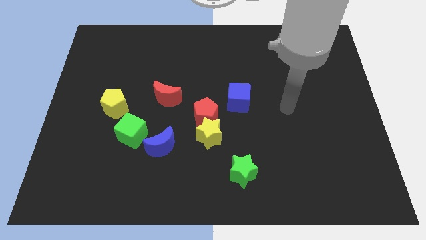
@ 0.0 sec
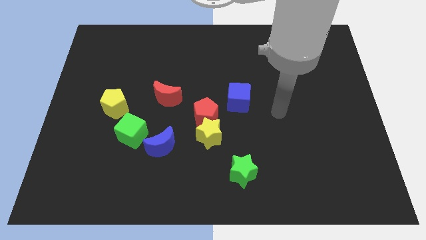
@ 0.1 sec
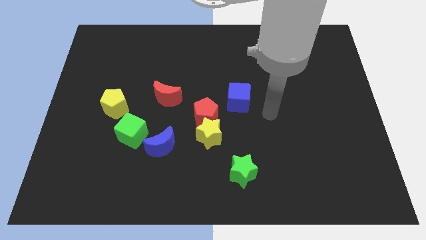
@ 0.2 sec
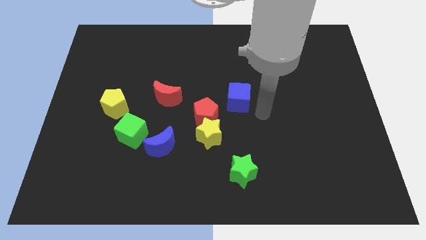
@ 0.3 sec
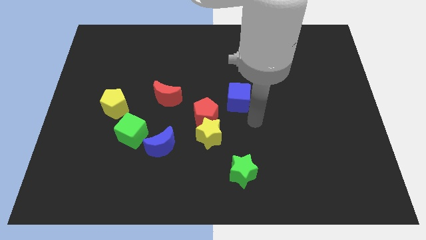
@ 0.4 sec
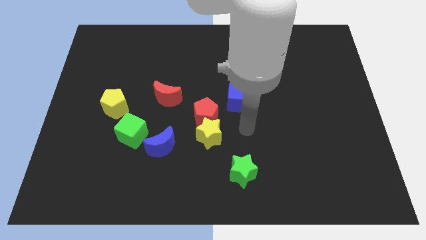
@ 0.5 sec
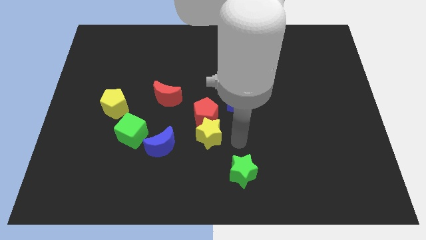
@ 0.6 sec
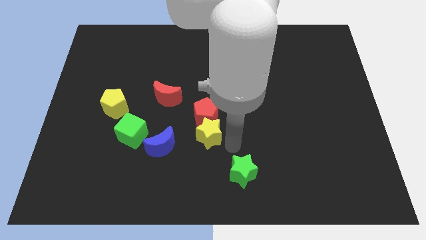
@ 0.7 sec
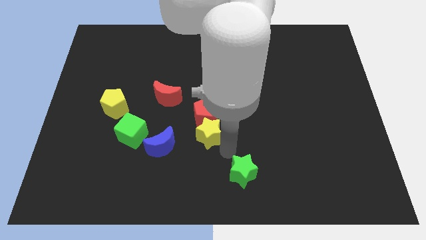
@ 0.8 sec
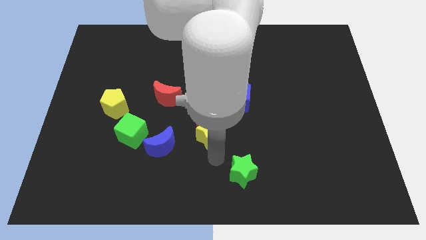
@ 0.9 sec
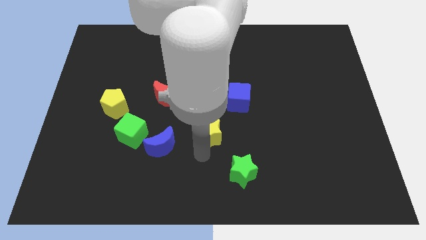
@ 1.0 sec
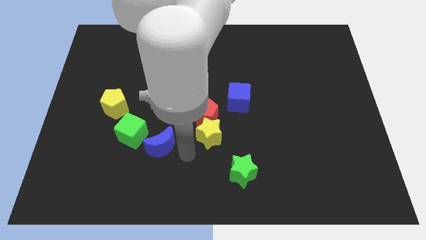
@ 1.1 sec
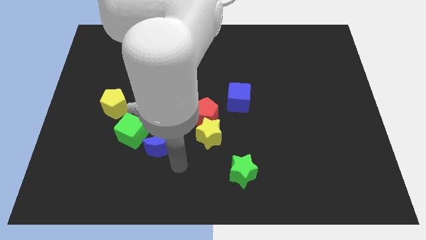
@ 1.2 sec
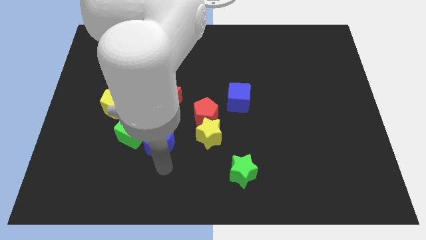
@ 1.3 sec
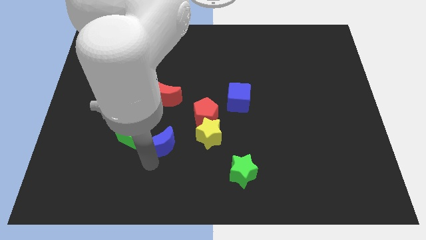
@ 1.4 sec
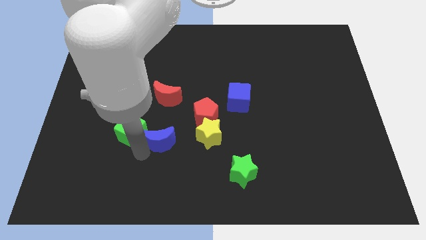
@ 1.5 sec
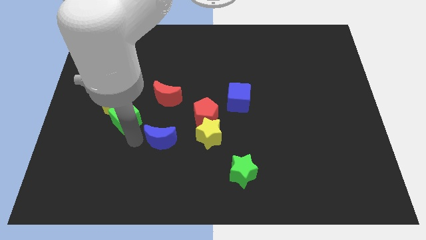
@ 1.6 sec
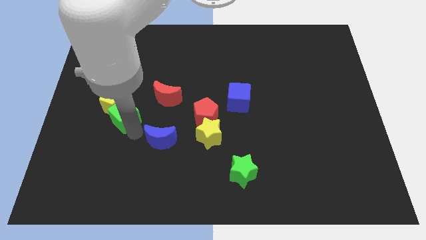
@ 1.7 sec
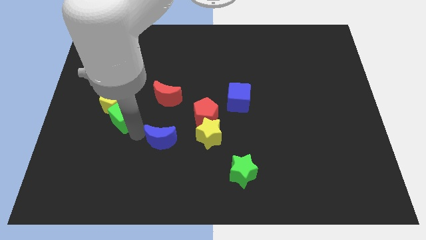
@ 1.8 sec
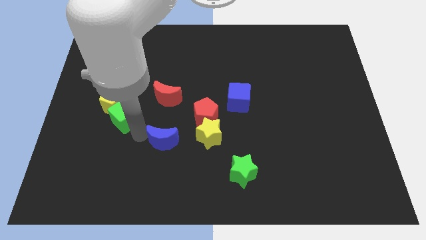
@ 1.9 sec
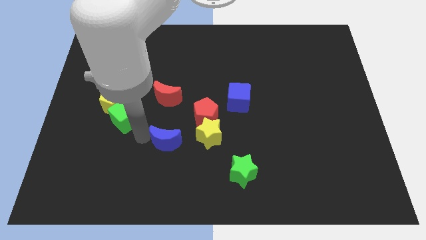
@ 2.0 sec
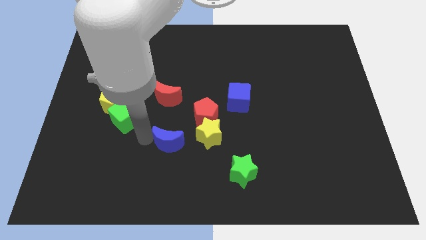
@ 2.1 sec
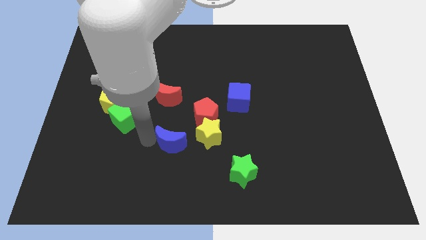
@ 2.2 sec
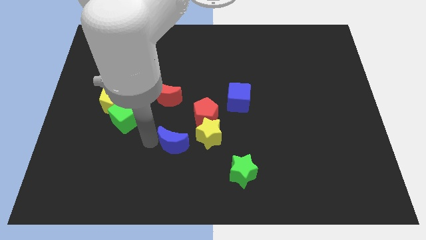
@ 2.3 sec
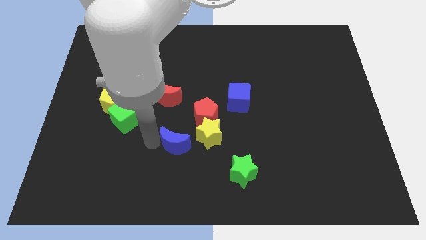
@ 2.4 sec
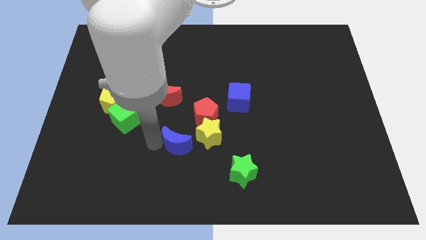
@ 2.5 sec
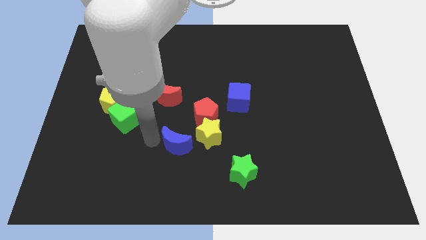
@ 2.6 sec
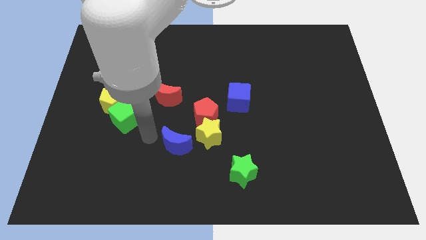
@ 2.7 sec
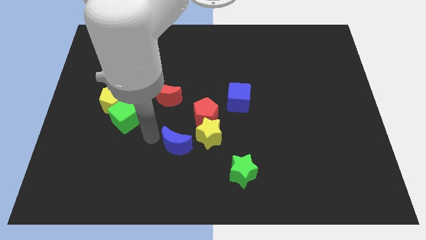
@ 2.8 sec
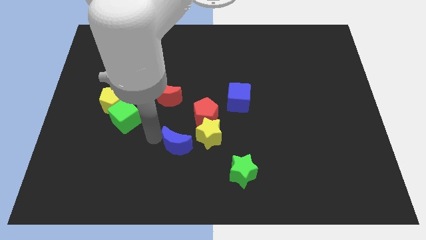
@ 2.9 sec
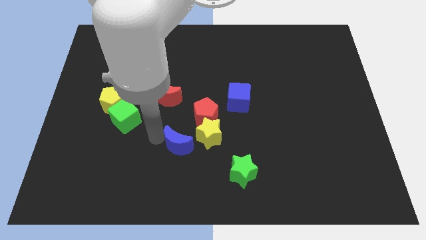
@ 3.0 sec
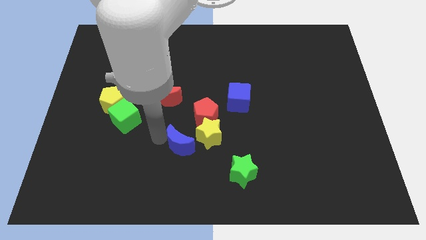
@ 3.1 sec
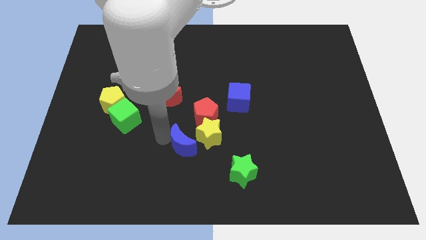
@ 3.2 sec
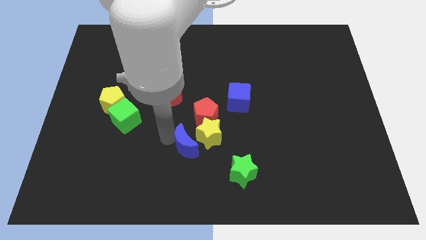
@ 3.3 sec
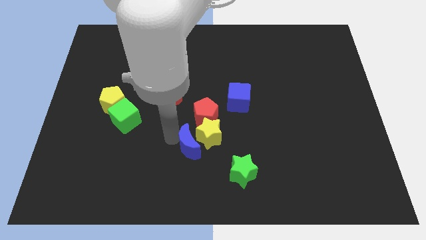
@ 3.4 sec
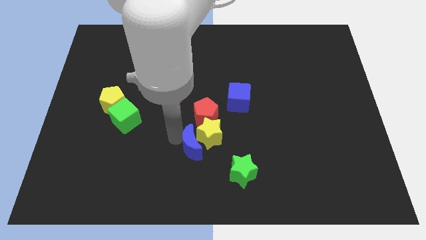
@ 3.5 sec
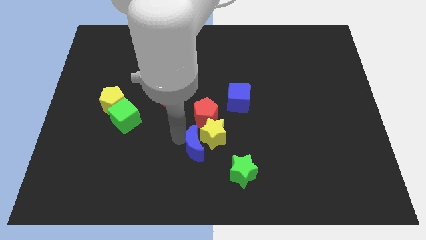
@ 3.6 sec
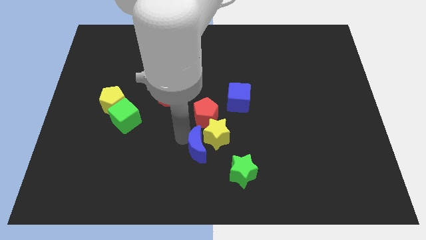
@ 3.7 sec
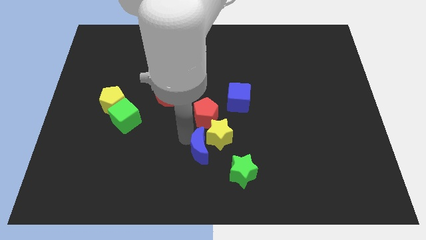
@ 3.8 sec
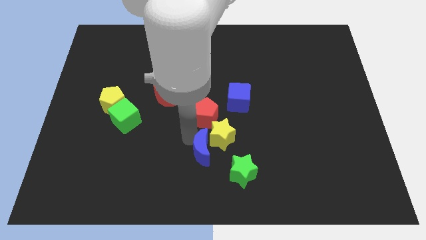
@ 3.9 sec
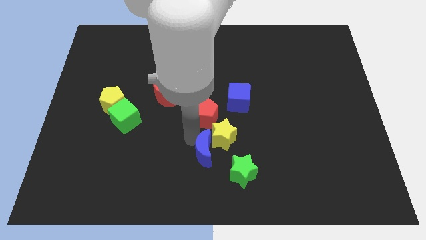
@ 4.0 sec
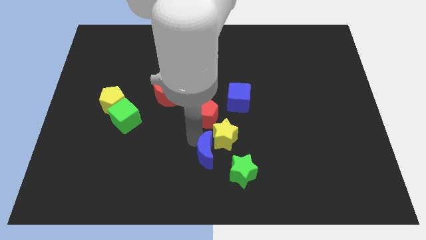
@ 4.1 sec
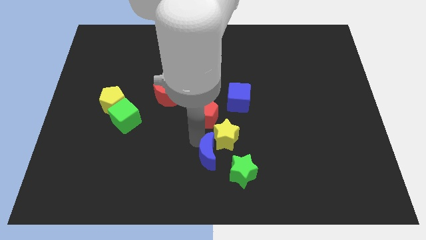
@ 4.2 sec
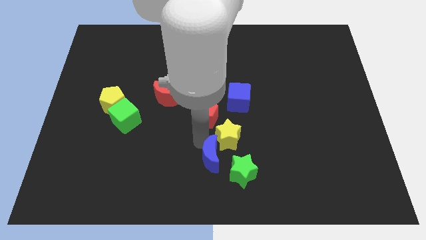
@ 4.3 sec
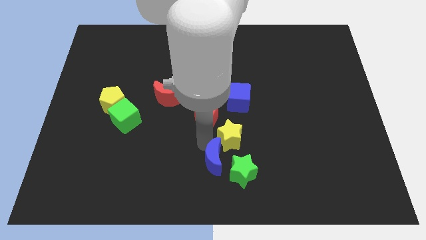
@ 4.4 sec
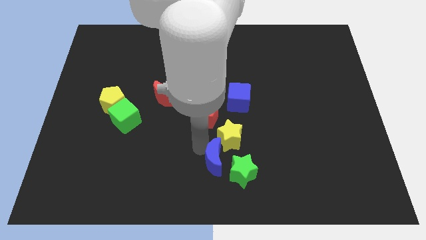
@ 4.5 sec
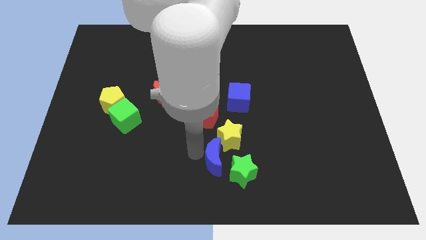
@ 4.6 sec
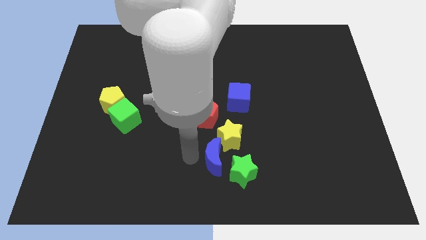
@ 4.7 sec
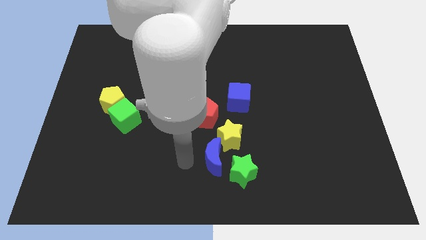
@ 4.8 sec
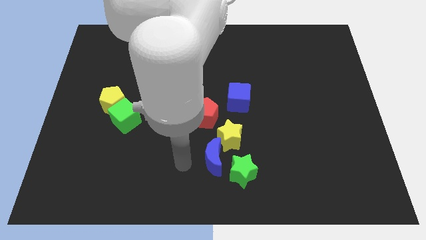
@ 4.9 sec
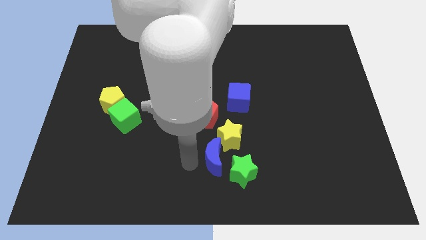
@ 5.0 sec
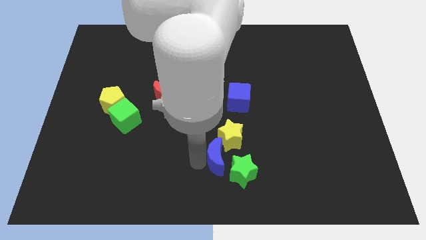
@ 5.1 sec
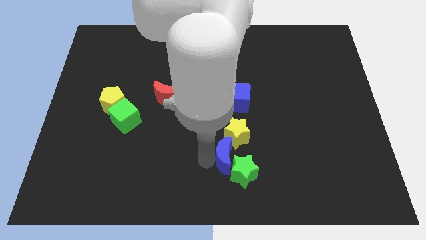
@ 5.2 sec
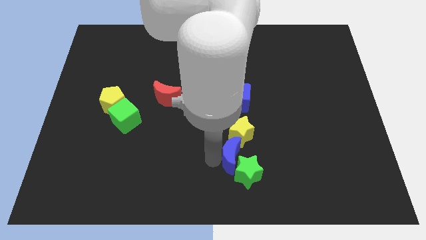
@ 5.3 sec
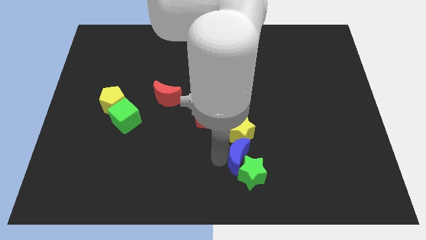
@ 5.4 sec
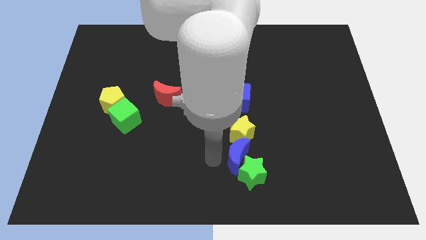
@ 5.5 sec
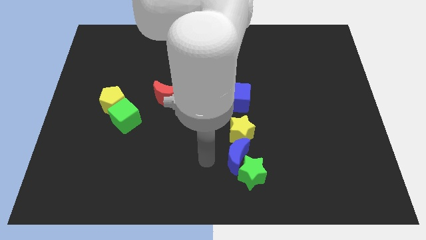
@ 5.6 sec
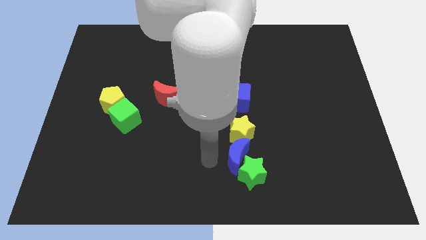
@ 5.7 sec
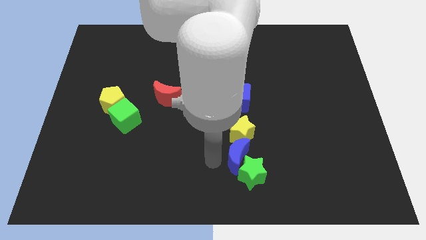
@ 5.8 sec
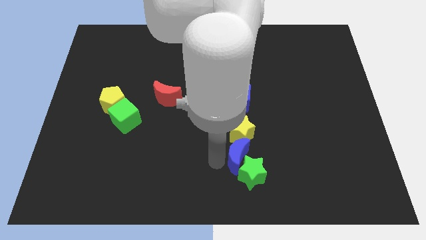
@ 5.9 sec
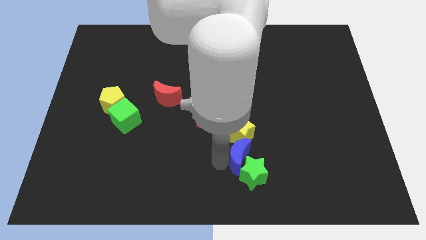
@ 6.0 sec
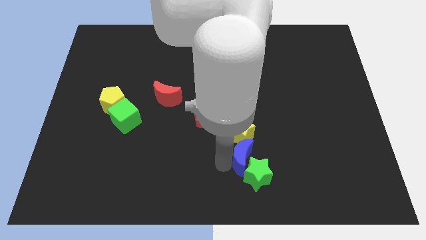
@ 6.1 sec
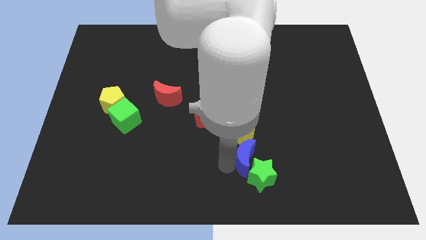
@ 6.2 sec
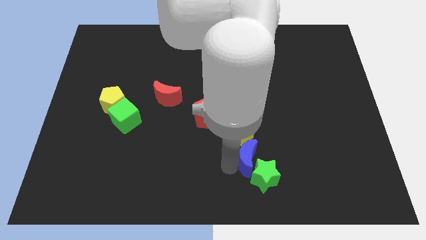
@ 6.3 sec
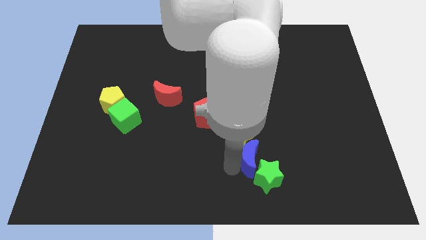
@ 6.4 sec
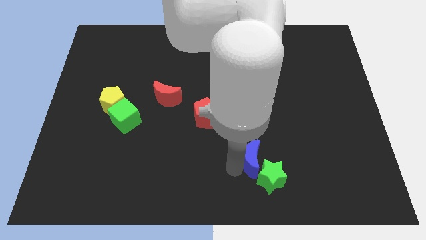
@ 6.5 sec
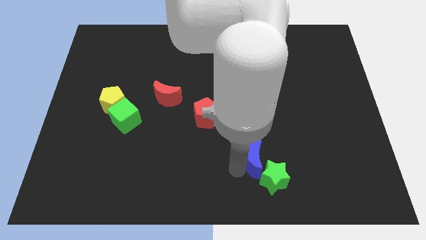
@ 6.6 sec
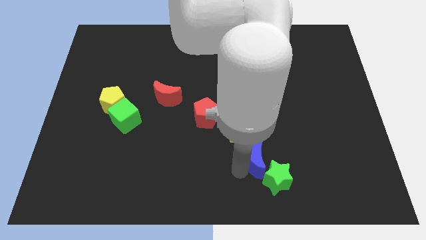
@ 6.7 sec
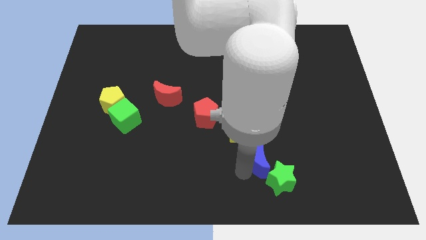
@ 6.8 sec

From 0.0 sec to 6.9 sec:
slide the blue moon right

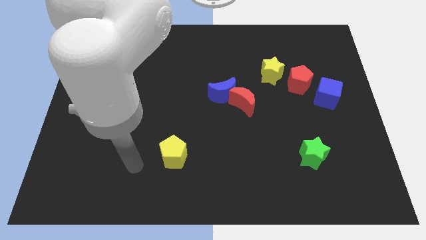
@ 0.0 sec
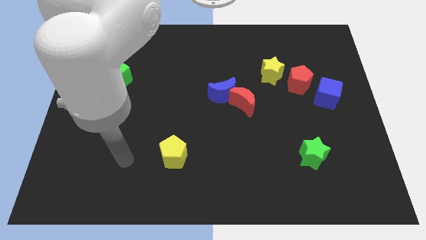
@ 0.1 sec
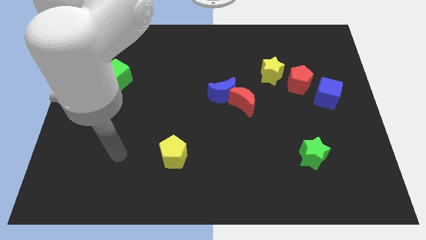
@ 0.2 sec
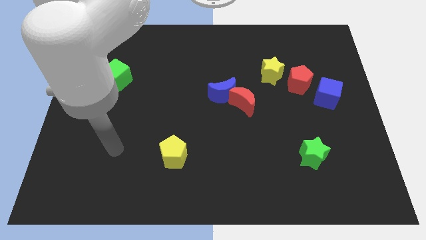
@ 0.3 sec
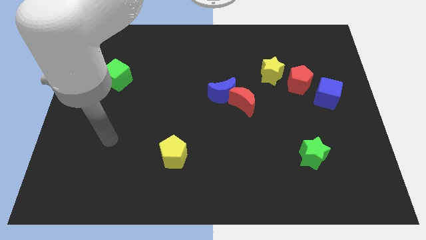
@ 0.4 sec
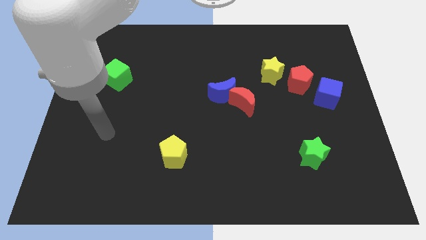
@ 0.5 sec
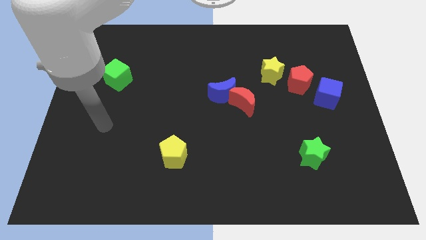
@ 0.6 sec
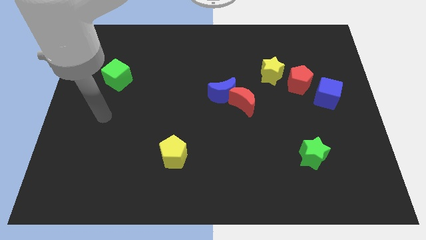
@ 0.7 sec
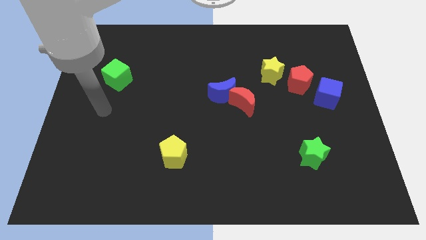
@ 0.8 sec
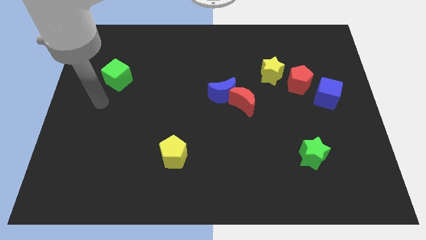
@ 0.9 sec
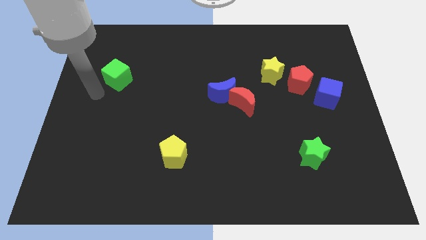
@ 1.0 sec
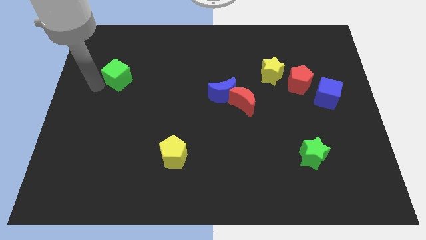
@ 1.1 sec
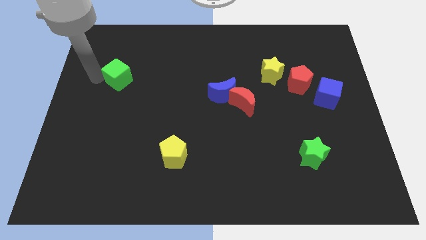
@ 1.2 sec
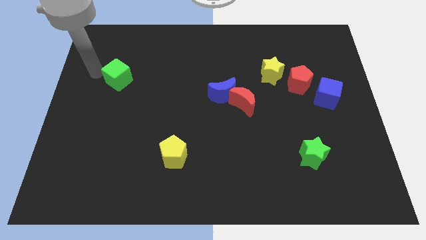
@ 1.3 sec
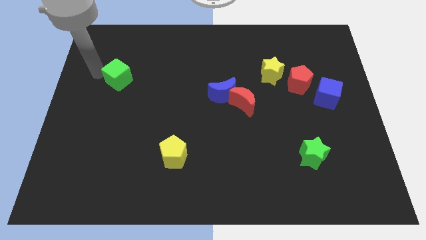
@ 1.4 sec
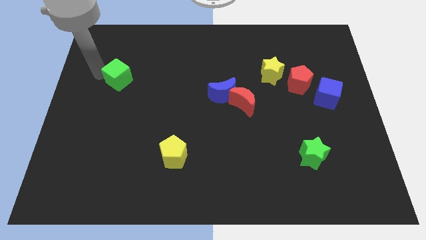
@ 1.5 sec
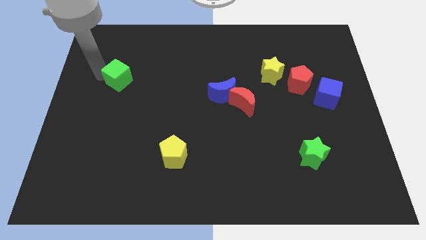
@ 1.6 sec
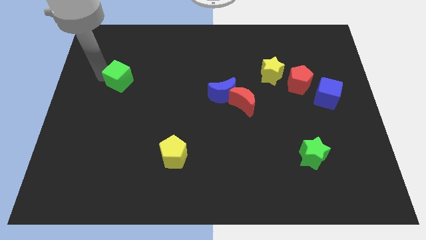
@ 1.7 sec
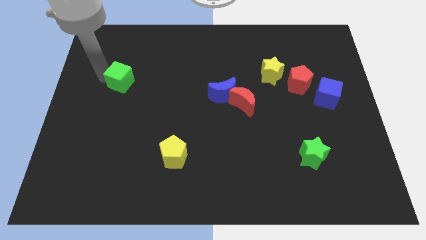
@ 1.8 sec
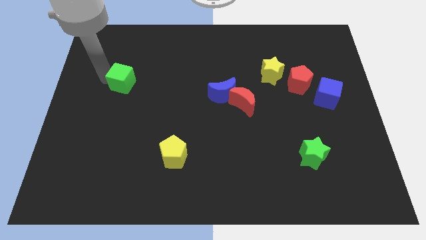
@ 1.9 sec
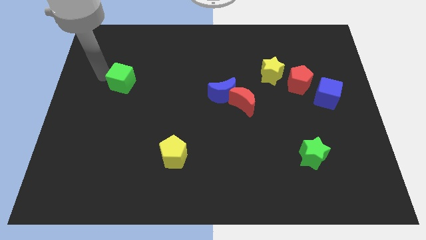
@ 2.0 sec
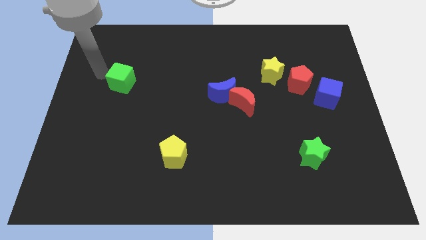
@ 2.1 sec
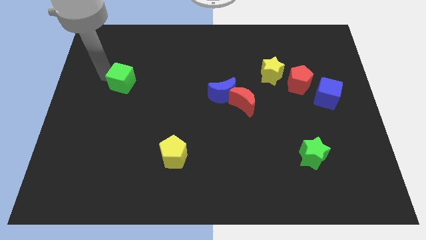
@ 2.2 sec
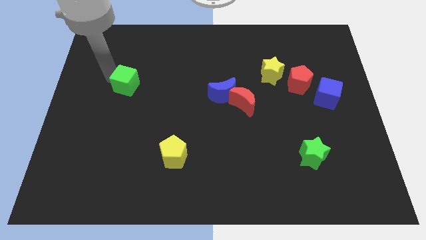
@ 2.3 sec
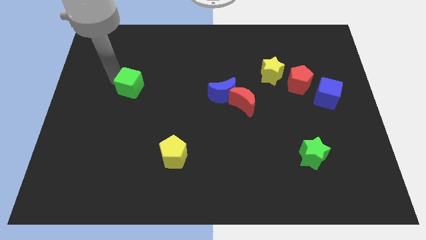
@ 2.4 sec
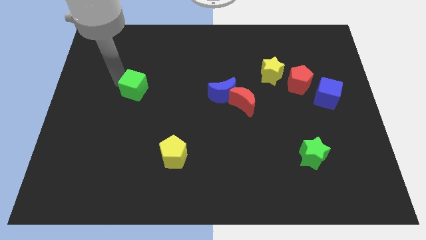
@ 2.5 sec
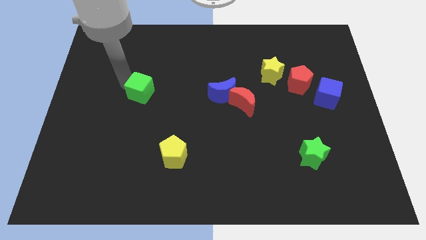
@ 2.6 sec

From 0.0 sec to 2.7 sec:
move the green cube a little bit down and then to the right
